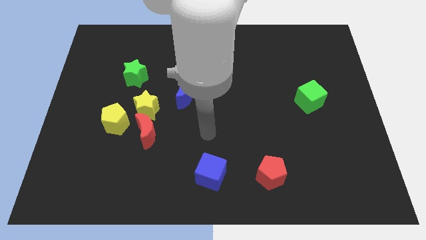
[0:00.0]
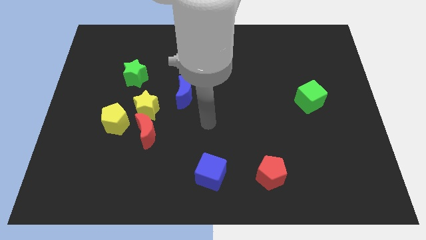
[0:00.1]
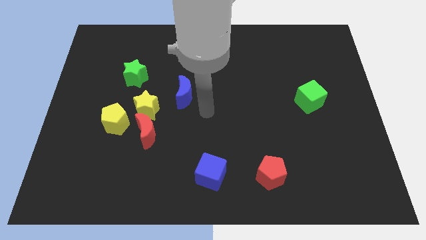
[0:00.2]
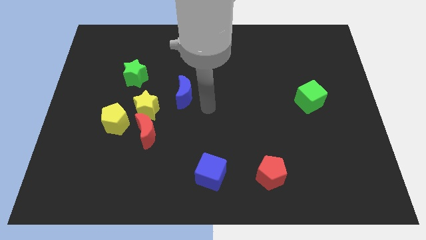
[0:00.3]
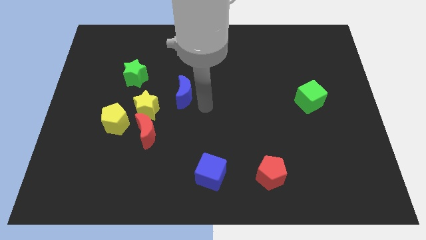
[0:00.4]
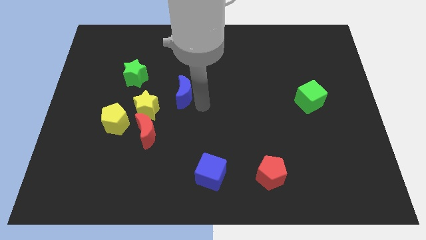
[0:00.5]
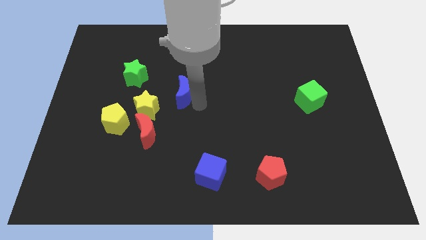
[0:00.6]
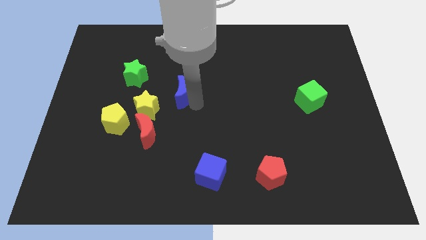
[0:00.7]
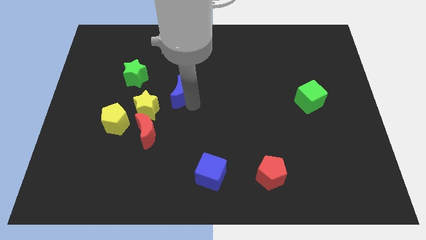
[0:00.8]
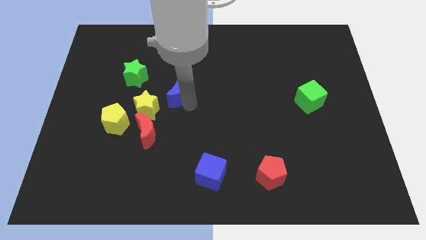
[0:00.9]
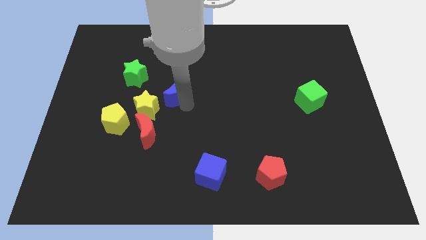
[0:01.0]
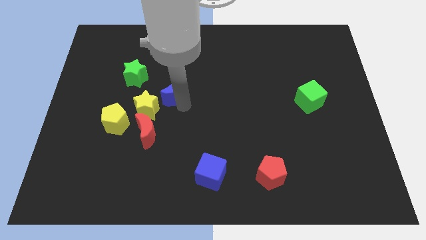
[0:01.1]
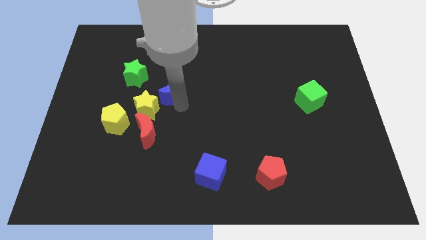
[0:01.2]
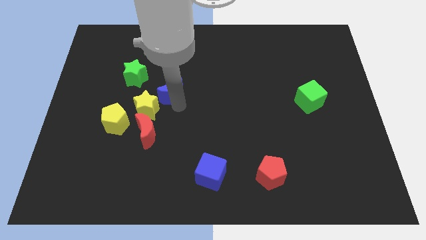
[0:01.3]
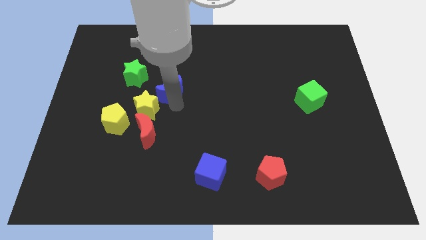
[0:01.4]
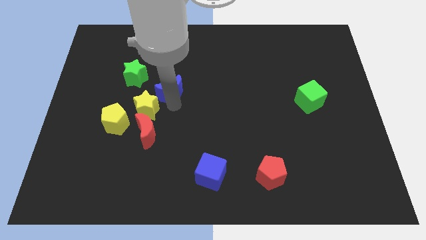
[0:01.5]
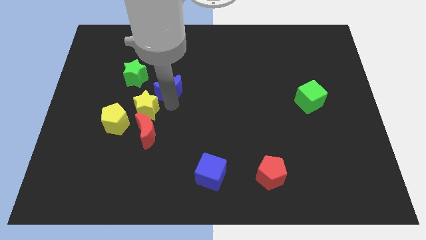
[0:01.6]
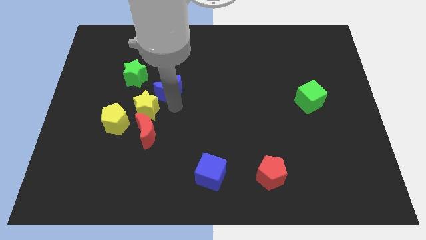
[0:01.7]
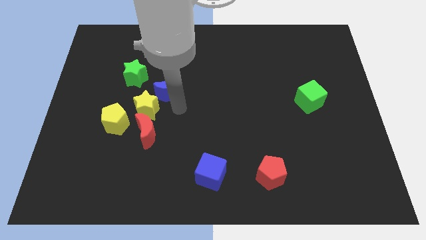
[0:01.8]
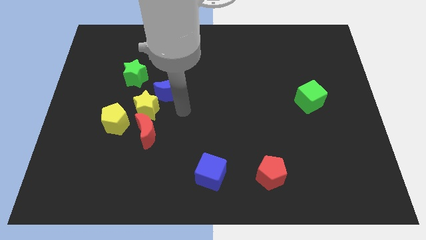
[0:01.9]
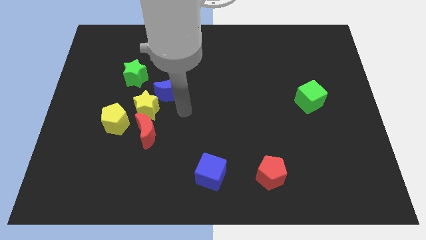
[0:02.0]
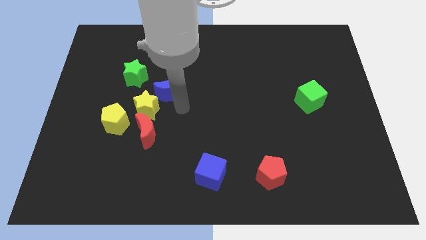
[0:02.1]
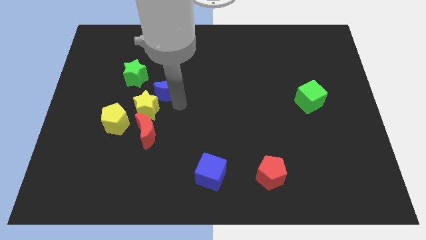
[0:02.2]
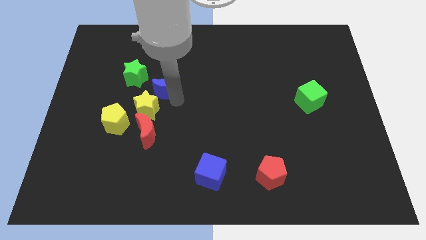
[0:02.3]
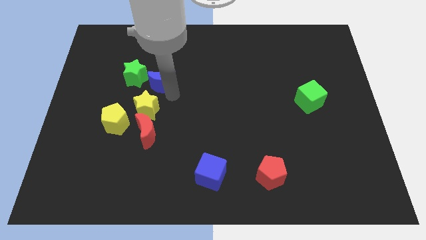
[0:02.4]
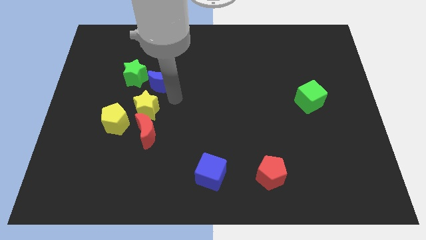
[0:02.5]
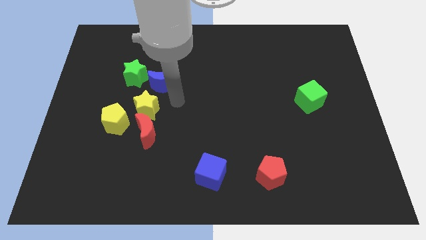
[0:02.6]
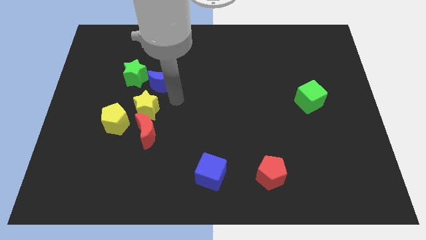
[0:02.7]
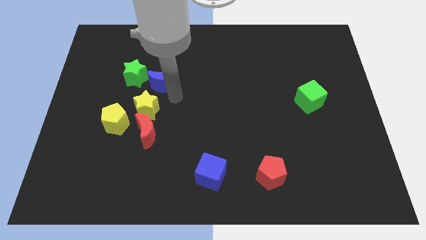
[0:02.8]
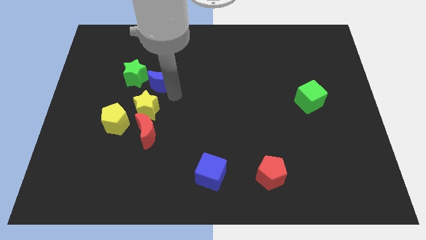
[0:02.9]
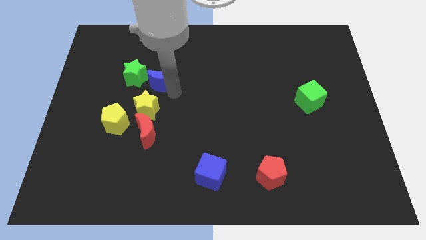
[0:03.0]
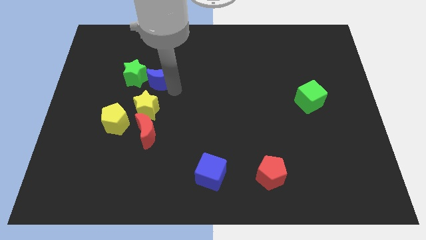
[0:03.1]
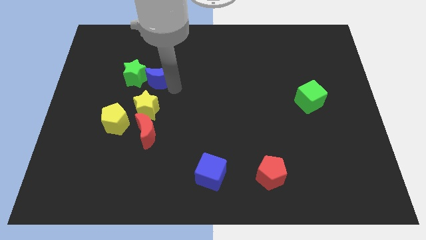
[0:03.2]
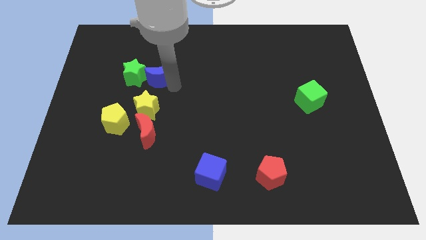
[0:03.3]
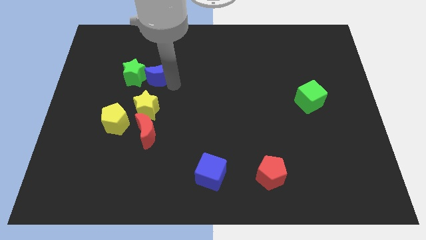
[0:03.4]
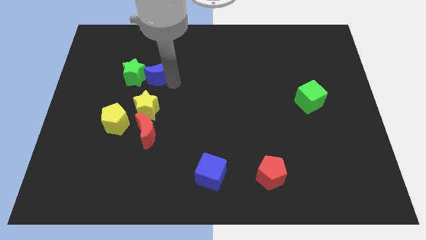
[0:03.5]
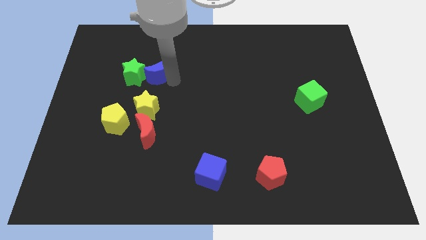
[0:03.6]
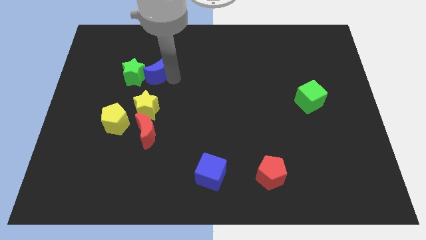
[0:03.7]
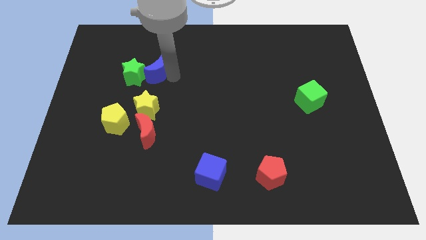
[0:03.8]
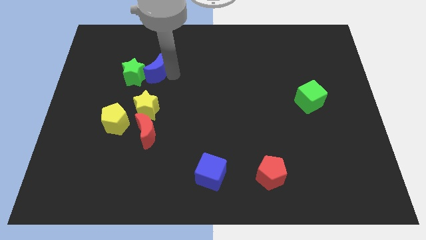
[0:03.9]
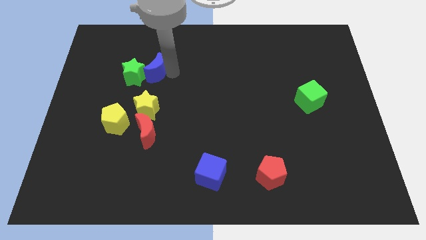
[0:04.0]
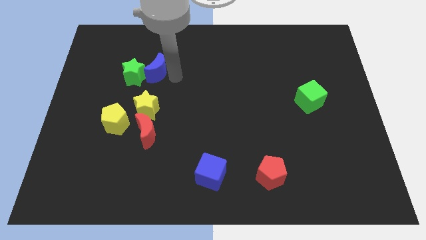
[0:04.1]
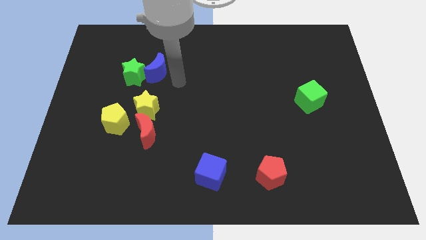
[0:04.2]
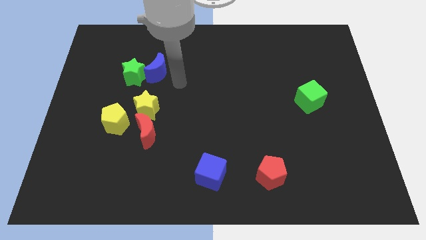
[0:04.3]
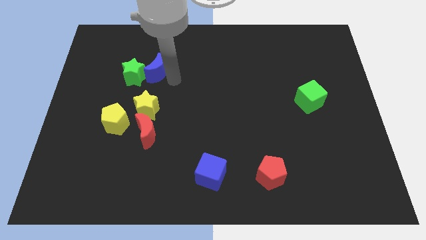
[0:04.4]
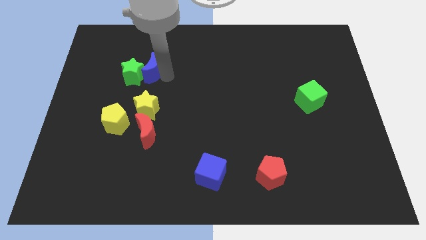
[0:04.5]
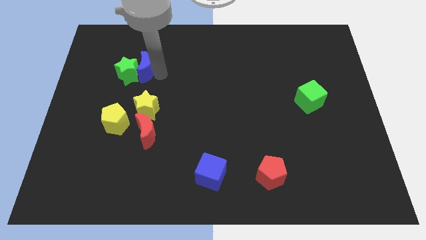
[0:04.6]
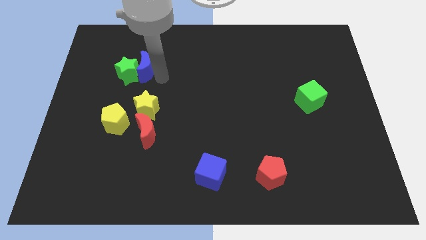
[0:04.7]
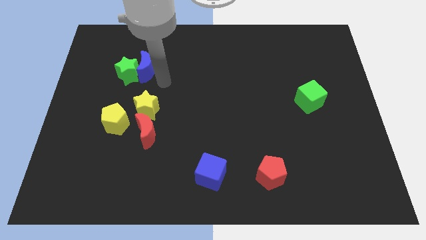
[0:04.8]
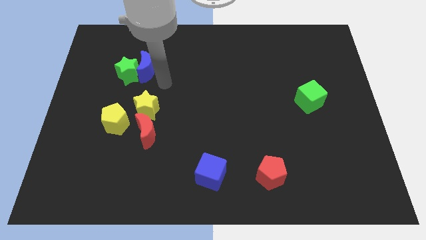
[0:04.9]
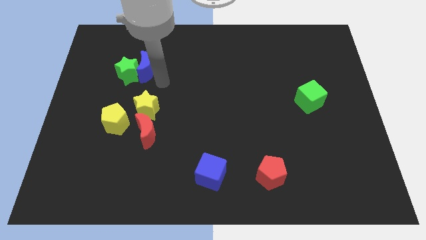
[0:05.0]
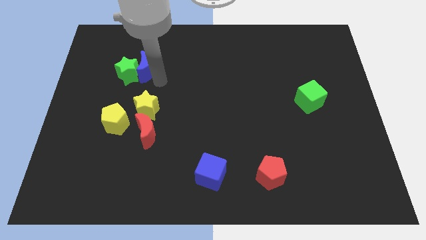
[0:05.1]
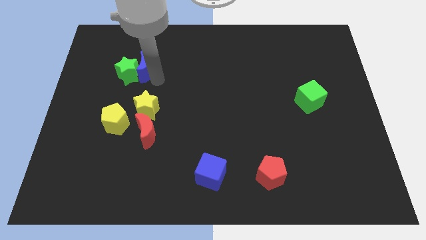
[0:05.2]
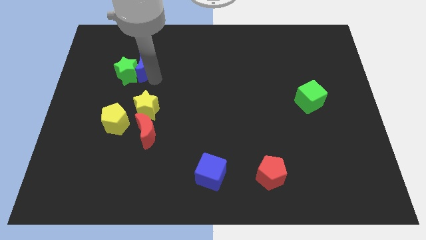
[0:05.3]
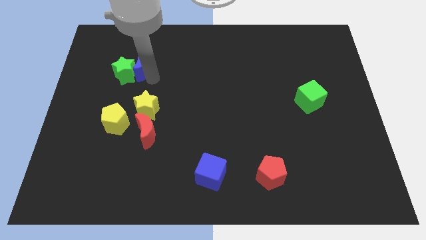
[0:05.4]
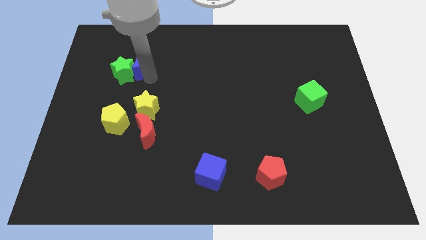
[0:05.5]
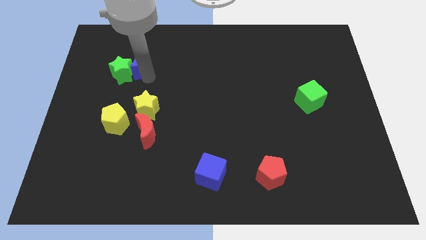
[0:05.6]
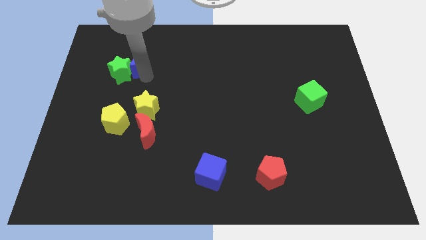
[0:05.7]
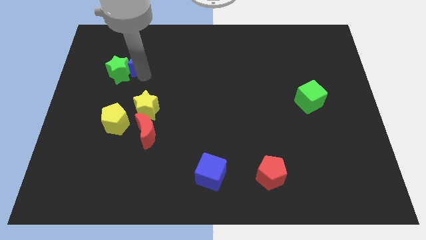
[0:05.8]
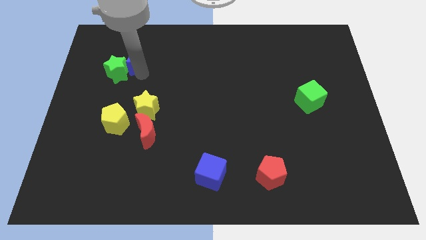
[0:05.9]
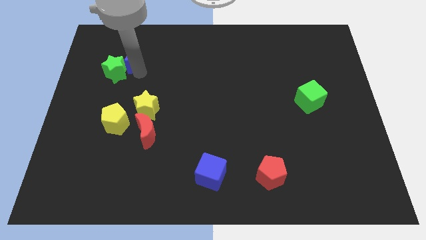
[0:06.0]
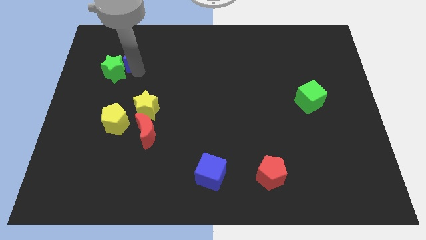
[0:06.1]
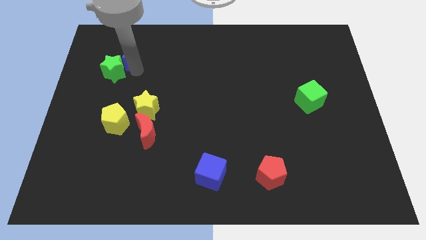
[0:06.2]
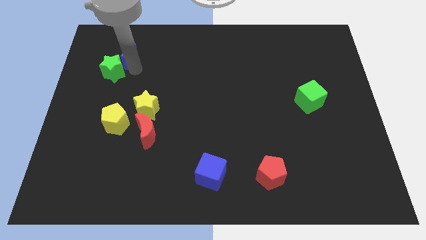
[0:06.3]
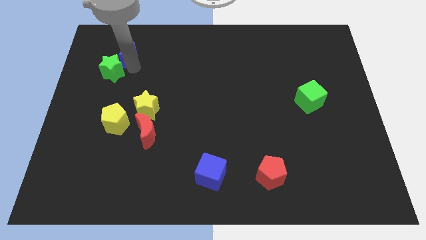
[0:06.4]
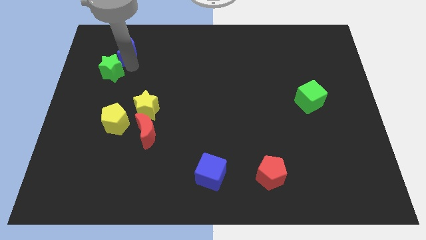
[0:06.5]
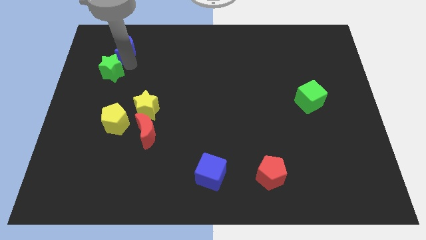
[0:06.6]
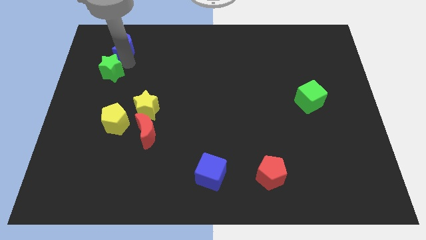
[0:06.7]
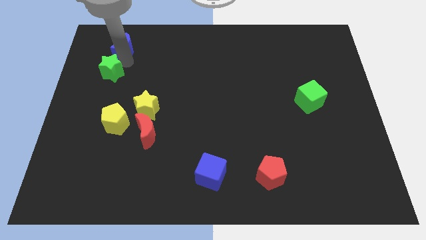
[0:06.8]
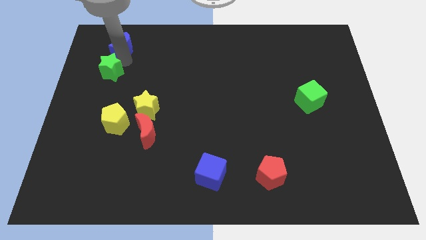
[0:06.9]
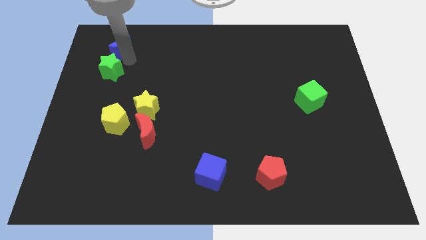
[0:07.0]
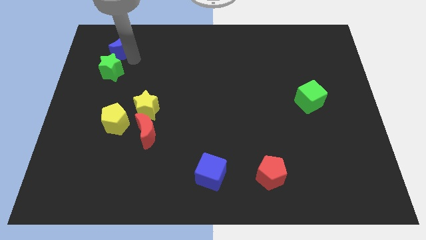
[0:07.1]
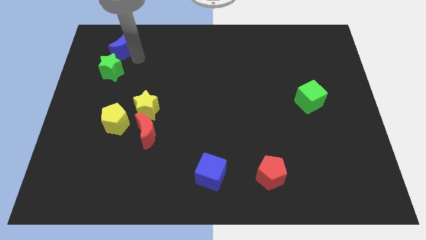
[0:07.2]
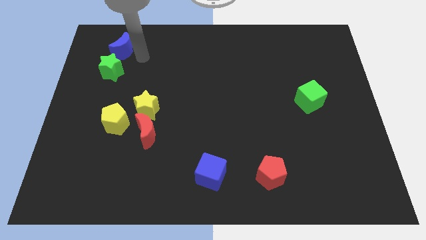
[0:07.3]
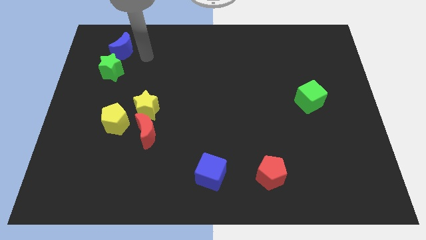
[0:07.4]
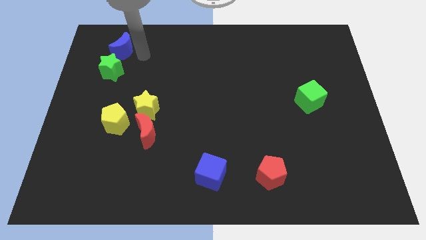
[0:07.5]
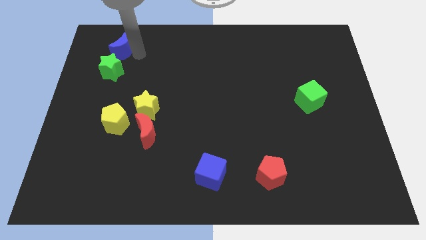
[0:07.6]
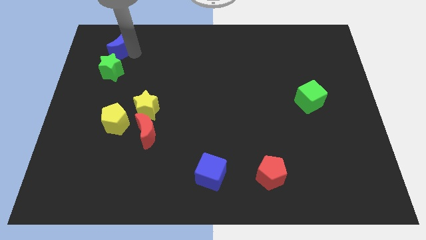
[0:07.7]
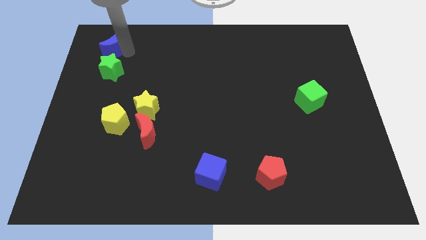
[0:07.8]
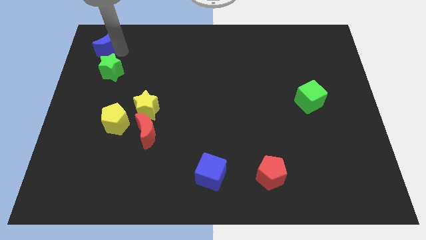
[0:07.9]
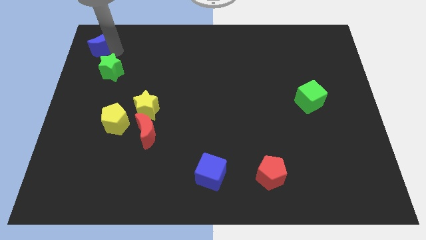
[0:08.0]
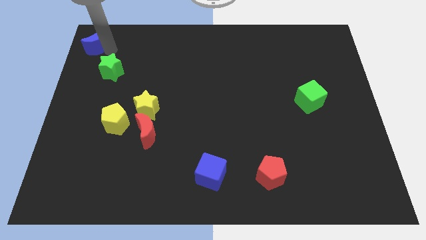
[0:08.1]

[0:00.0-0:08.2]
push the blue moon to the top left

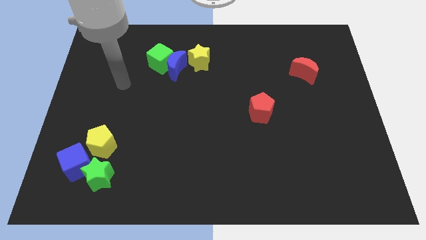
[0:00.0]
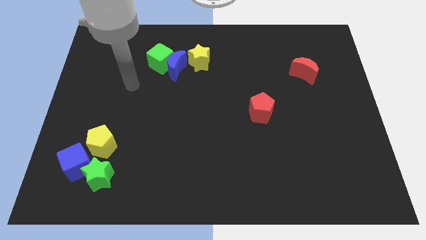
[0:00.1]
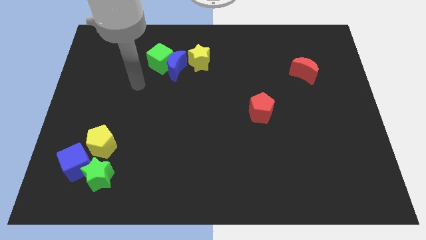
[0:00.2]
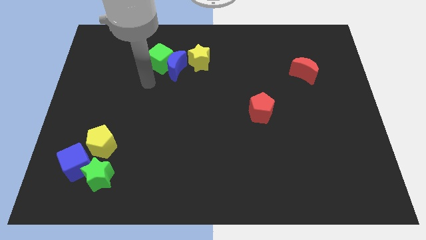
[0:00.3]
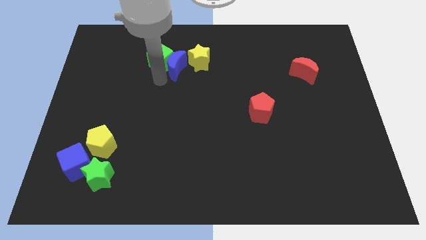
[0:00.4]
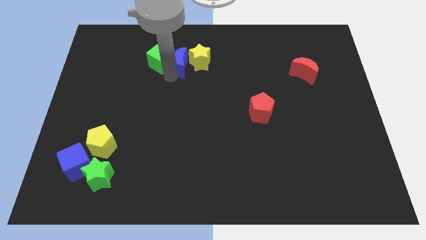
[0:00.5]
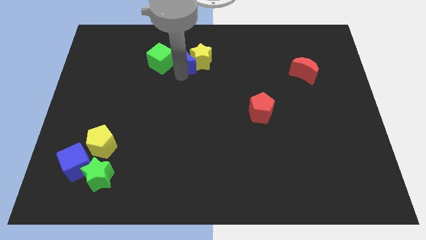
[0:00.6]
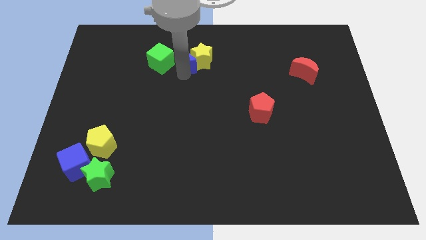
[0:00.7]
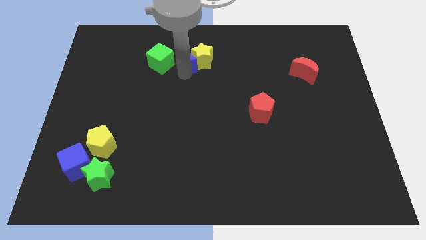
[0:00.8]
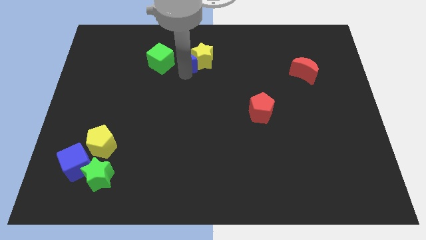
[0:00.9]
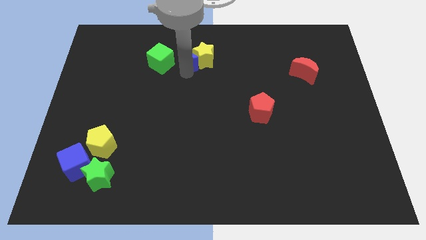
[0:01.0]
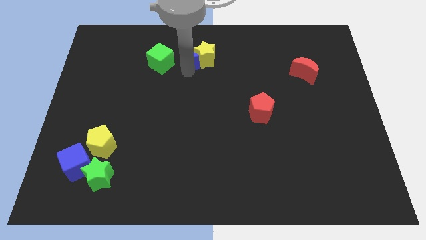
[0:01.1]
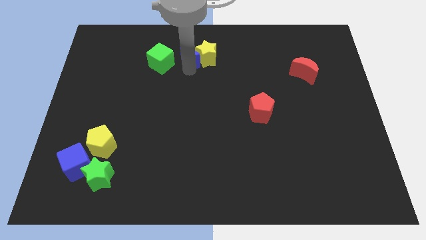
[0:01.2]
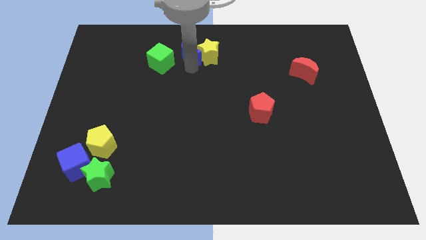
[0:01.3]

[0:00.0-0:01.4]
slide the yellow star to the towards your base
